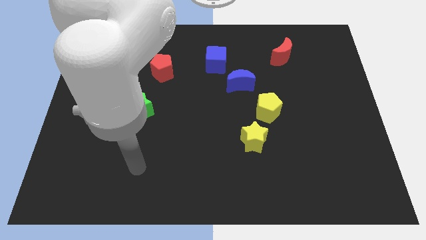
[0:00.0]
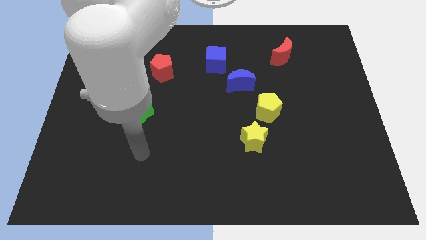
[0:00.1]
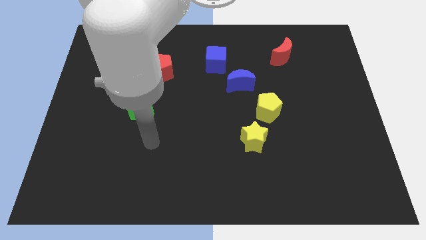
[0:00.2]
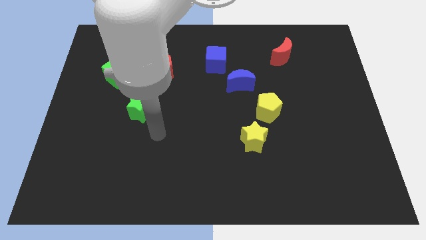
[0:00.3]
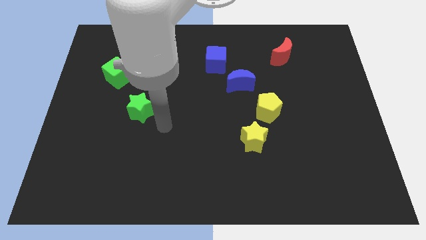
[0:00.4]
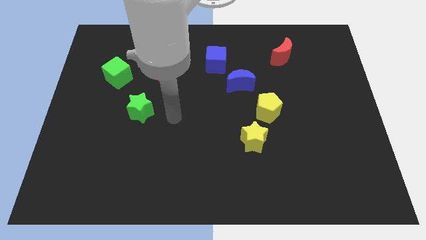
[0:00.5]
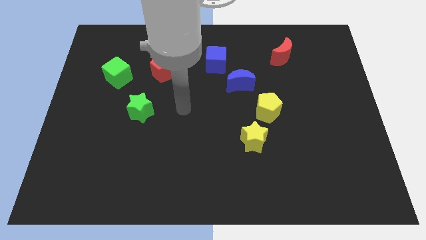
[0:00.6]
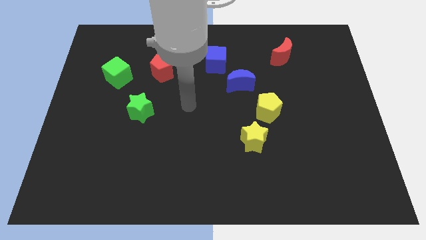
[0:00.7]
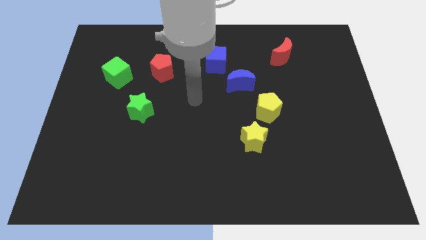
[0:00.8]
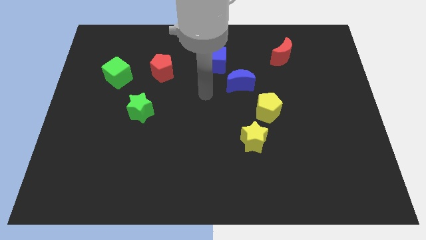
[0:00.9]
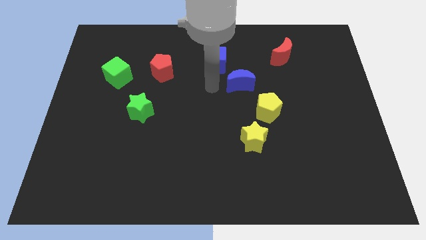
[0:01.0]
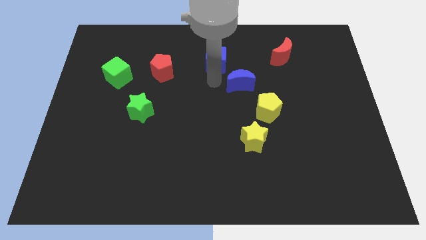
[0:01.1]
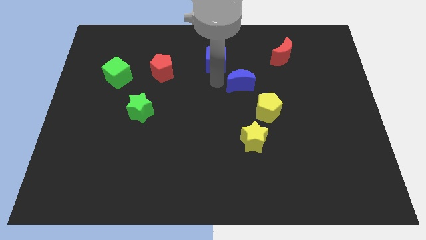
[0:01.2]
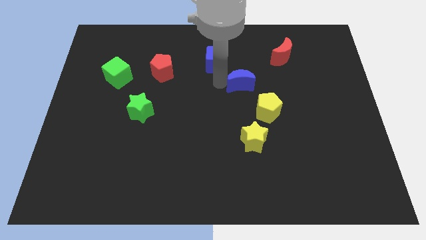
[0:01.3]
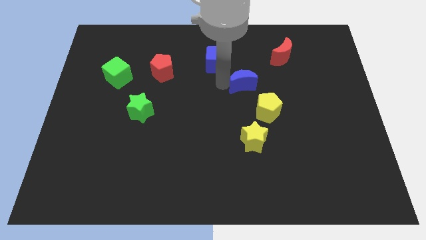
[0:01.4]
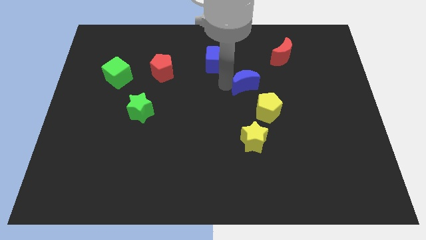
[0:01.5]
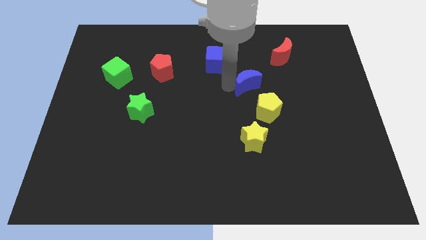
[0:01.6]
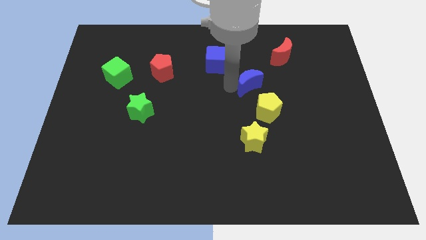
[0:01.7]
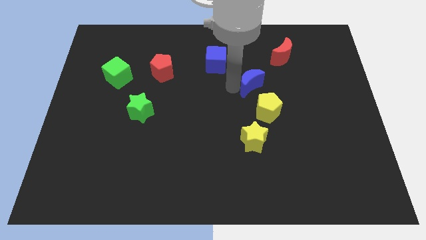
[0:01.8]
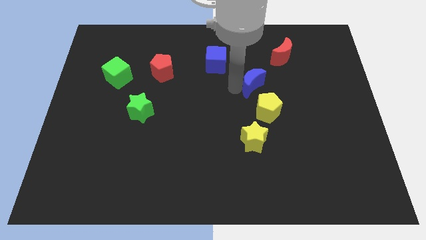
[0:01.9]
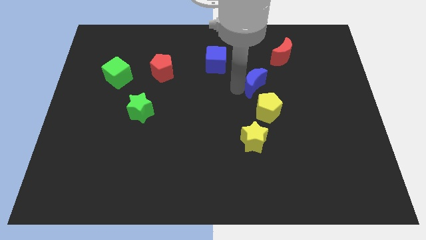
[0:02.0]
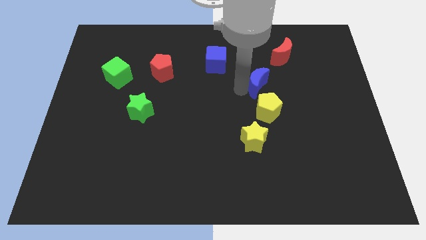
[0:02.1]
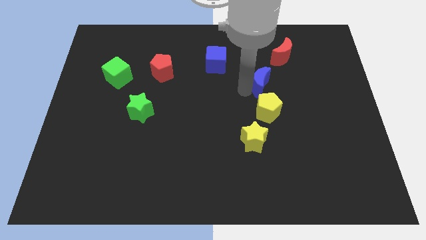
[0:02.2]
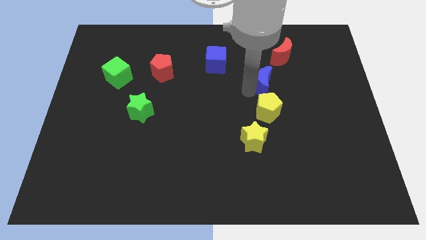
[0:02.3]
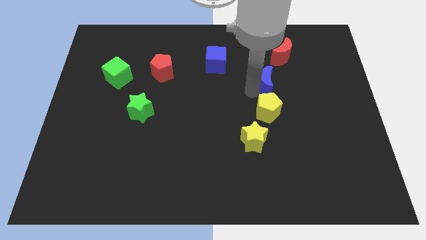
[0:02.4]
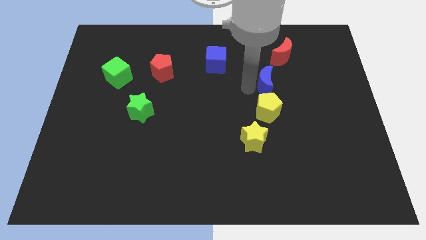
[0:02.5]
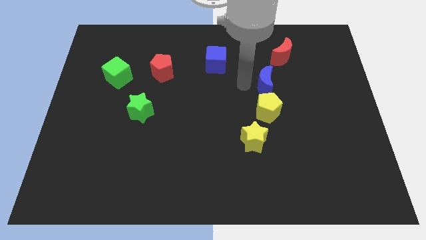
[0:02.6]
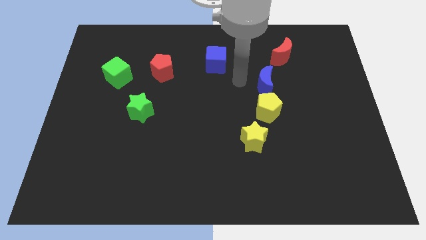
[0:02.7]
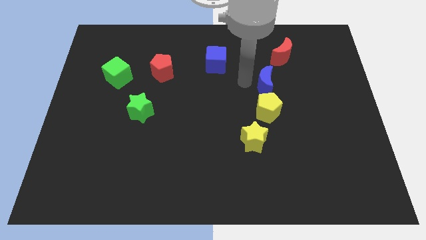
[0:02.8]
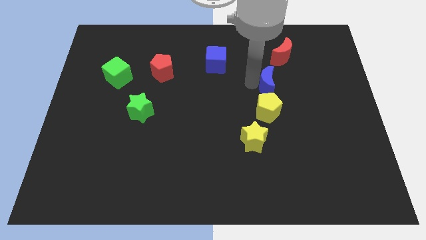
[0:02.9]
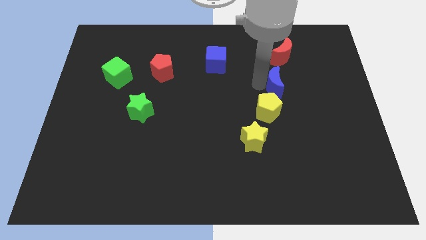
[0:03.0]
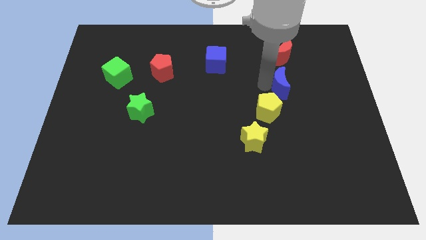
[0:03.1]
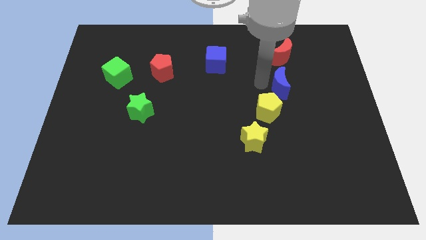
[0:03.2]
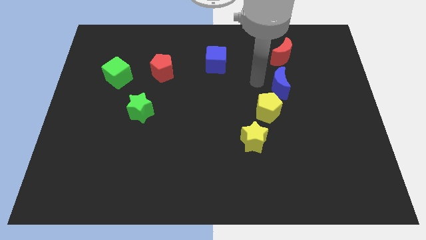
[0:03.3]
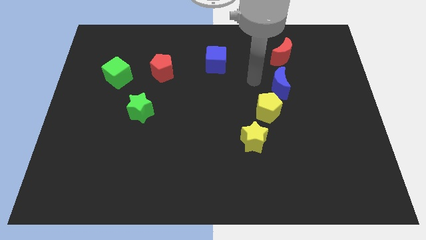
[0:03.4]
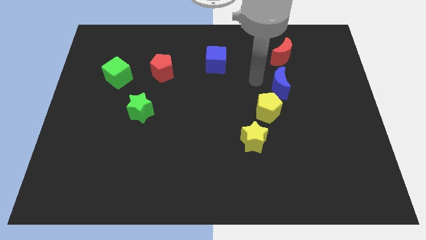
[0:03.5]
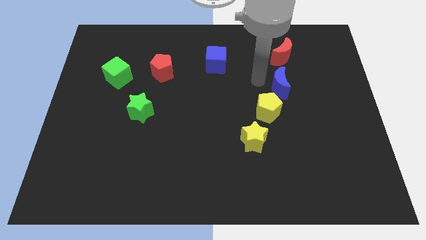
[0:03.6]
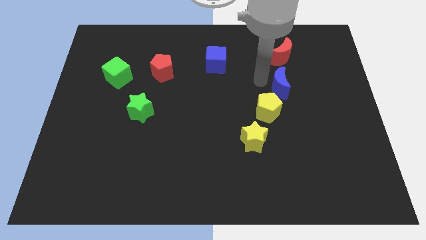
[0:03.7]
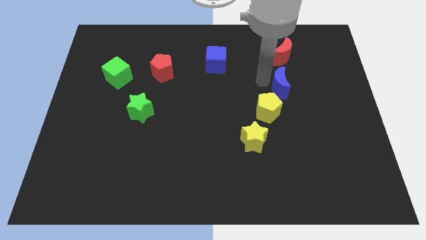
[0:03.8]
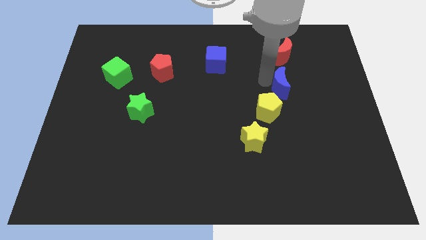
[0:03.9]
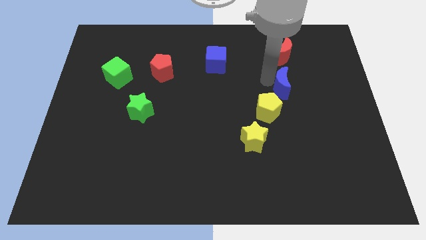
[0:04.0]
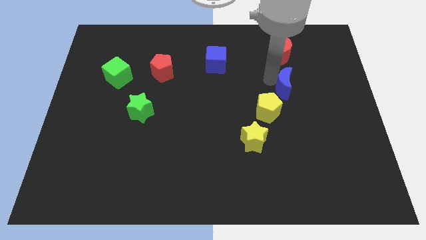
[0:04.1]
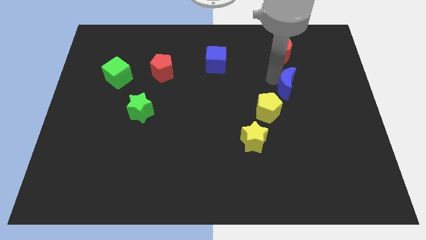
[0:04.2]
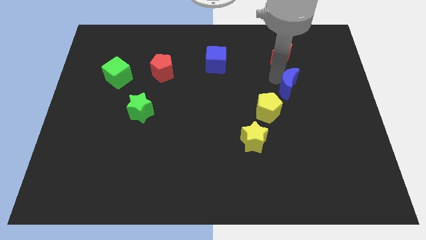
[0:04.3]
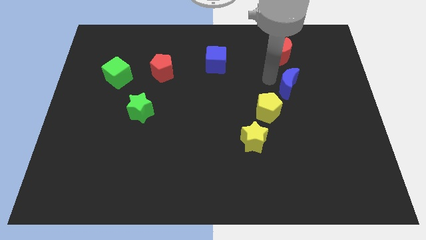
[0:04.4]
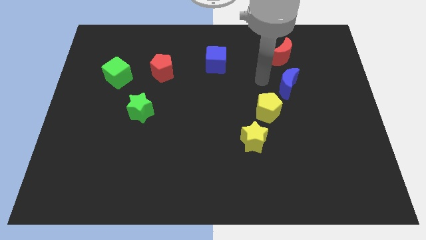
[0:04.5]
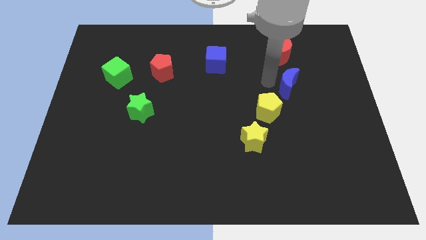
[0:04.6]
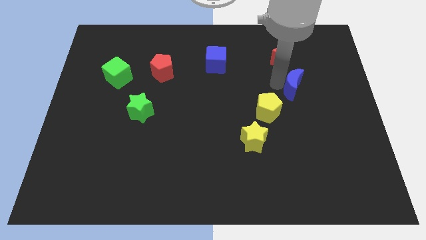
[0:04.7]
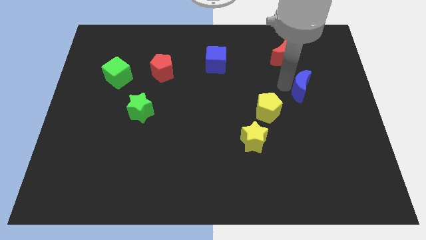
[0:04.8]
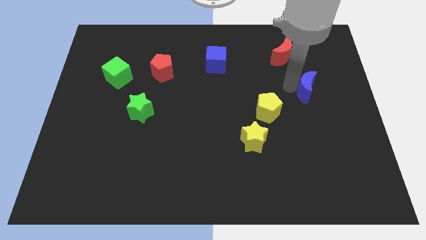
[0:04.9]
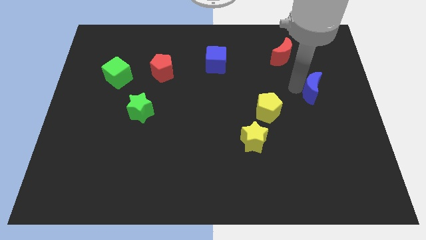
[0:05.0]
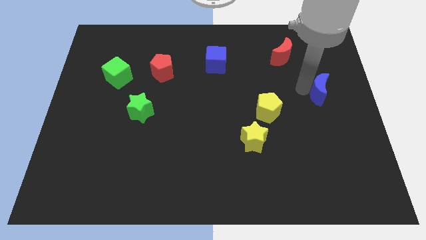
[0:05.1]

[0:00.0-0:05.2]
put the blue moon to the center right

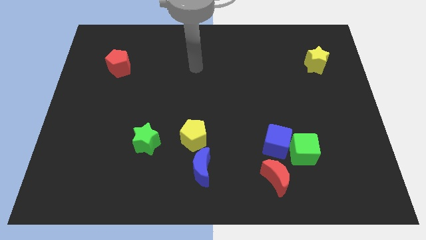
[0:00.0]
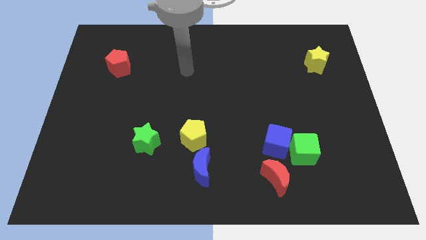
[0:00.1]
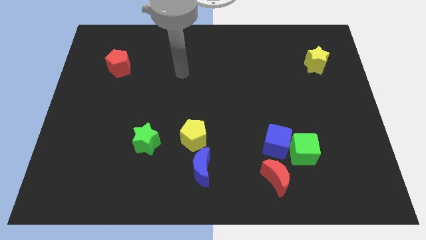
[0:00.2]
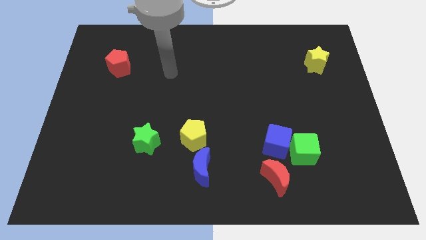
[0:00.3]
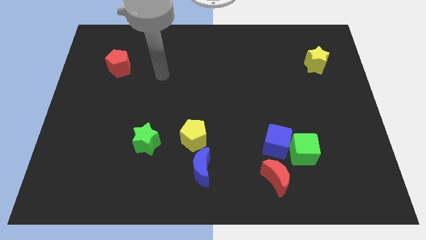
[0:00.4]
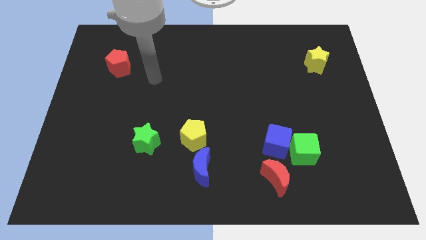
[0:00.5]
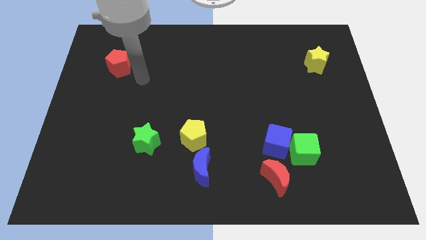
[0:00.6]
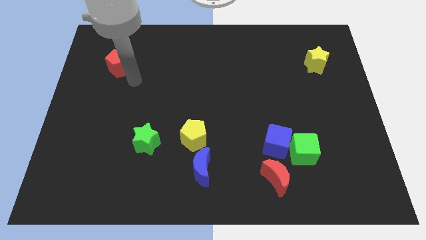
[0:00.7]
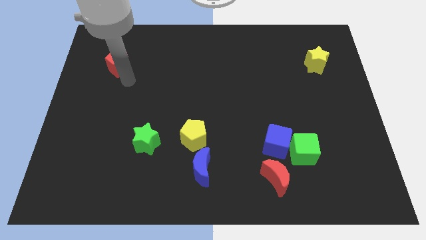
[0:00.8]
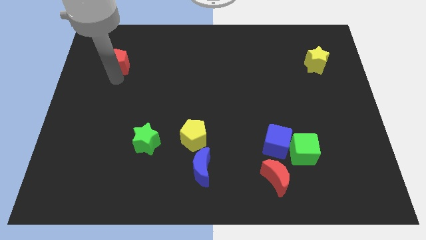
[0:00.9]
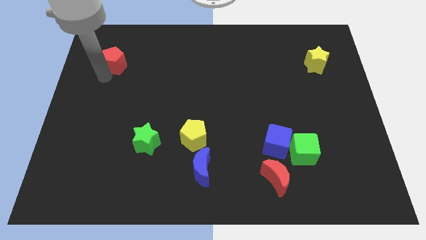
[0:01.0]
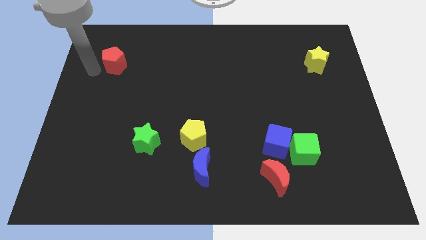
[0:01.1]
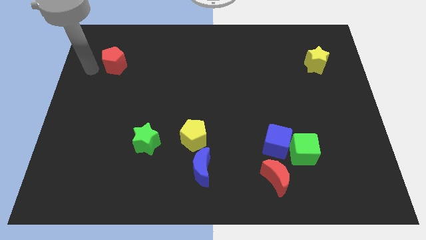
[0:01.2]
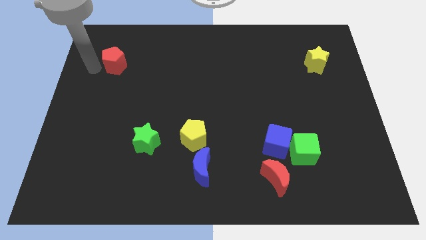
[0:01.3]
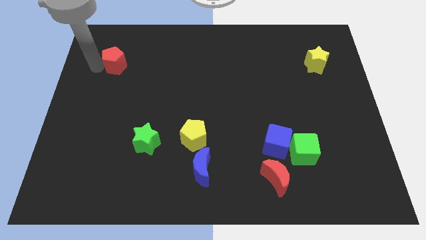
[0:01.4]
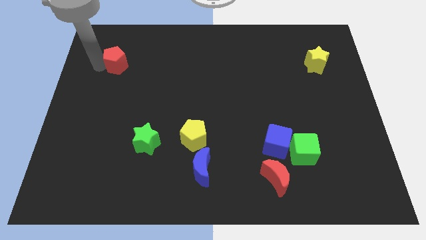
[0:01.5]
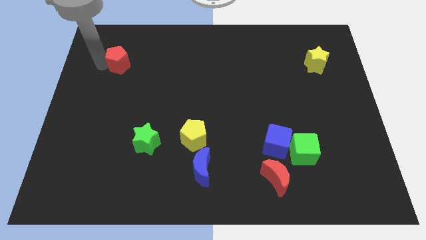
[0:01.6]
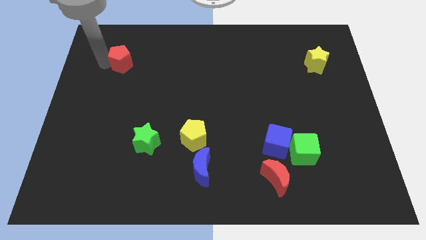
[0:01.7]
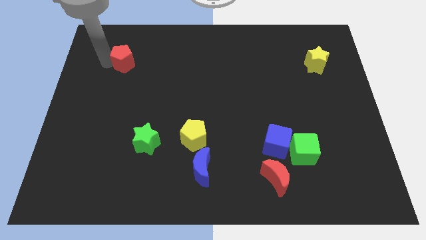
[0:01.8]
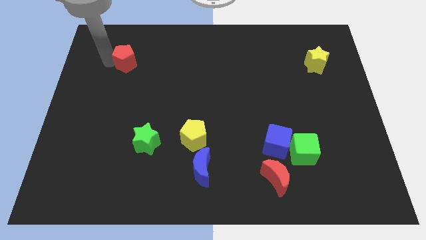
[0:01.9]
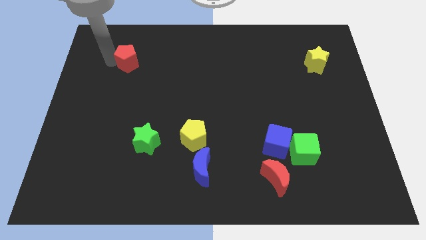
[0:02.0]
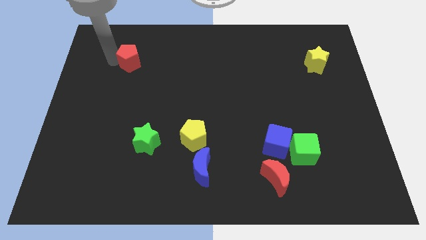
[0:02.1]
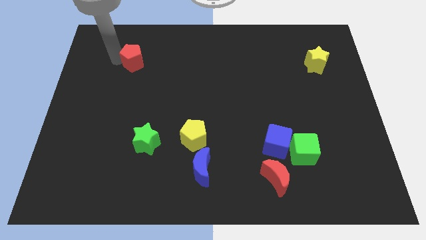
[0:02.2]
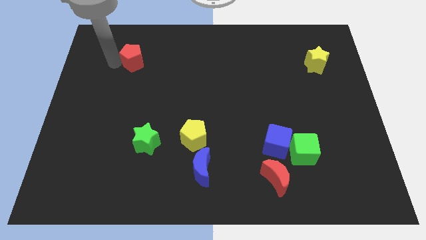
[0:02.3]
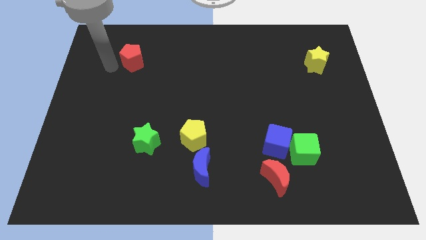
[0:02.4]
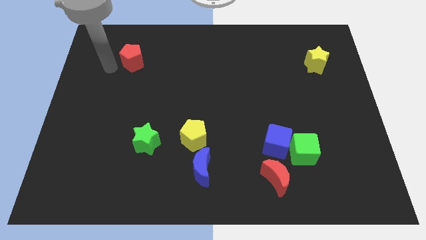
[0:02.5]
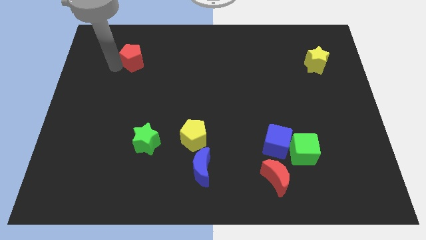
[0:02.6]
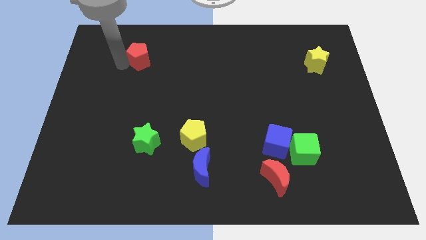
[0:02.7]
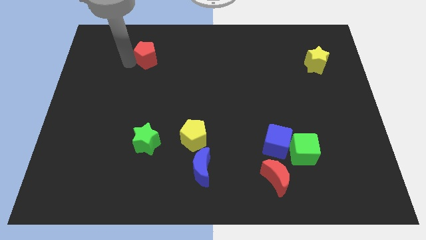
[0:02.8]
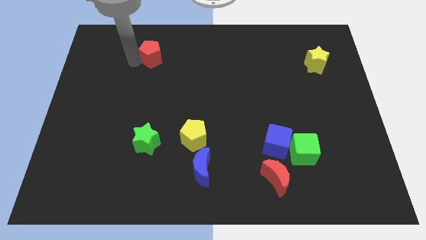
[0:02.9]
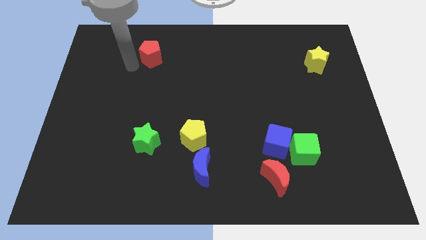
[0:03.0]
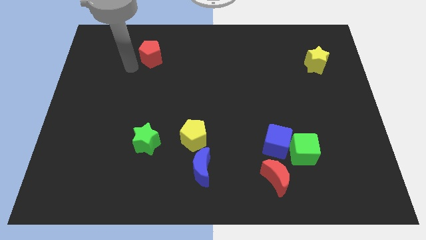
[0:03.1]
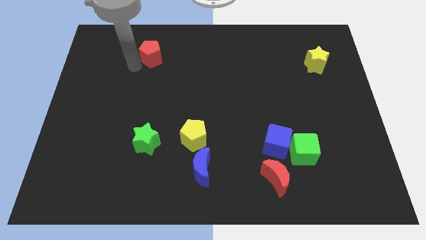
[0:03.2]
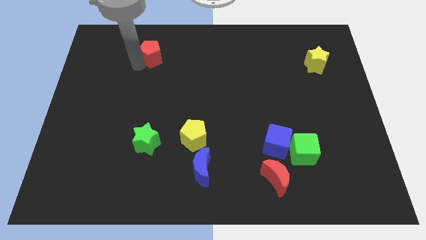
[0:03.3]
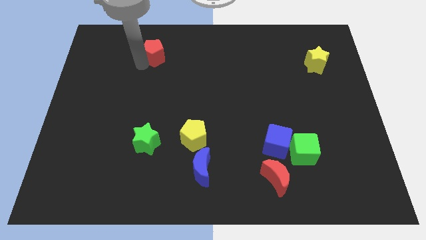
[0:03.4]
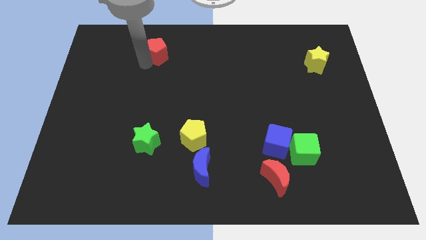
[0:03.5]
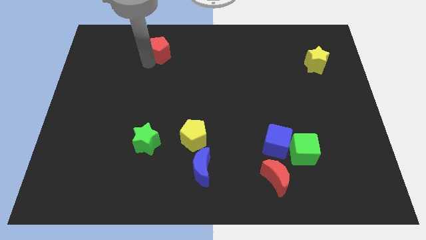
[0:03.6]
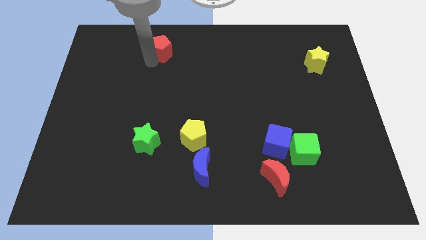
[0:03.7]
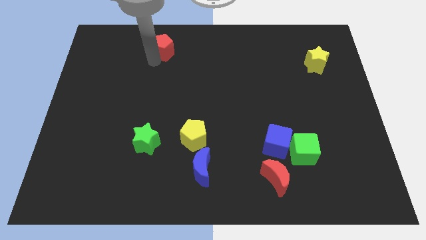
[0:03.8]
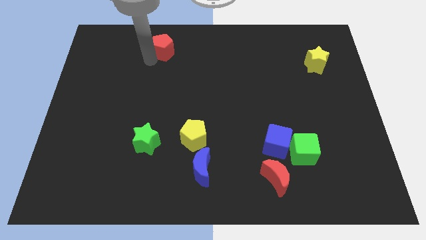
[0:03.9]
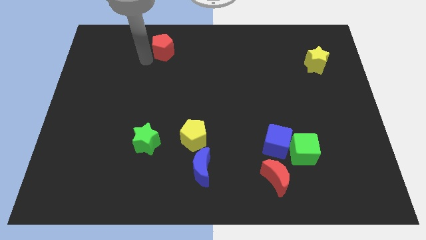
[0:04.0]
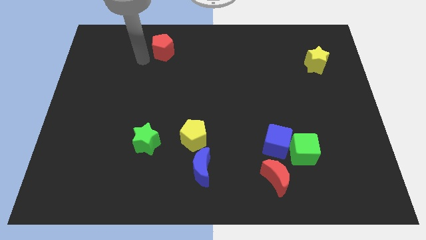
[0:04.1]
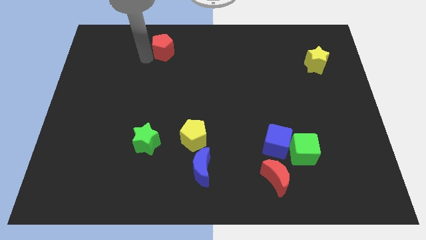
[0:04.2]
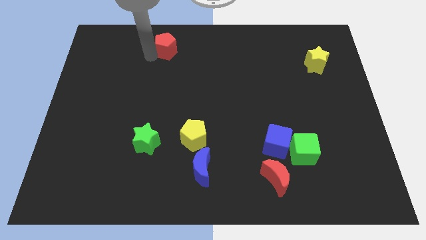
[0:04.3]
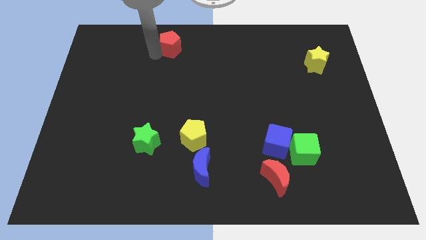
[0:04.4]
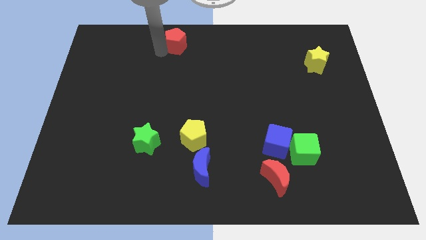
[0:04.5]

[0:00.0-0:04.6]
slide the red pentagon to the towards your base
